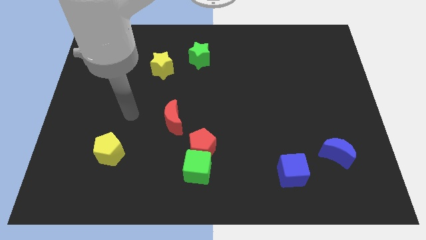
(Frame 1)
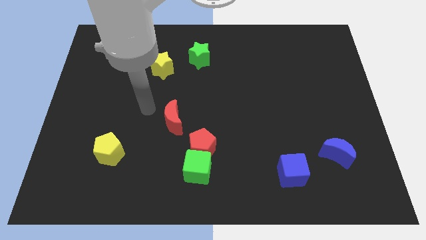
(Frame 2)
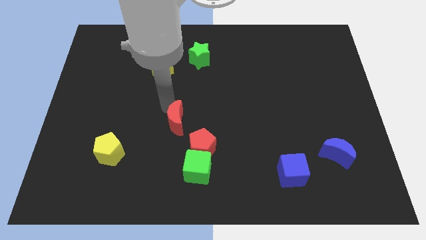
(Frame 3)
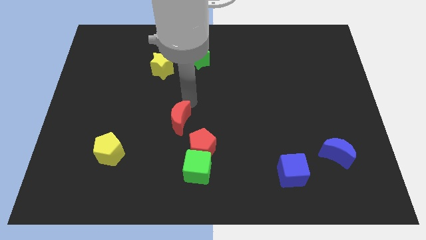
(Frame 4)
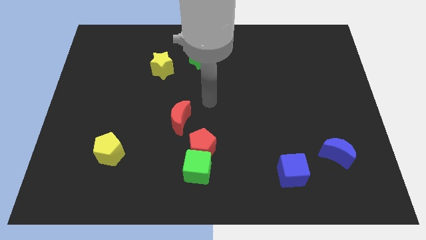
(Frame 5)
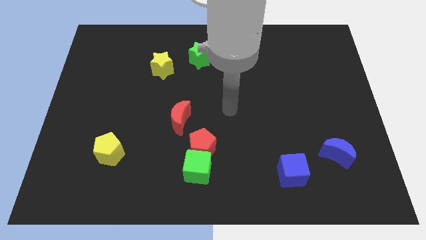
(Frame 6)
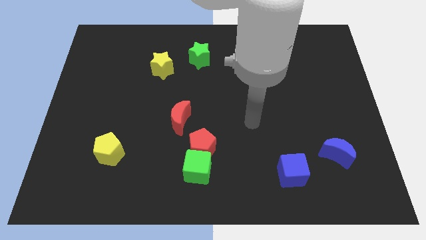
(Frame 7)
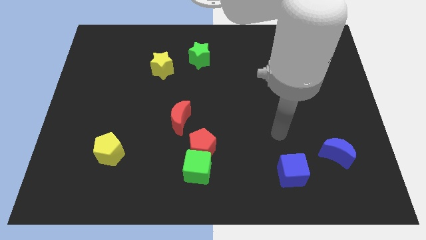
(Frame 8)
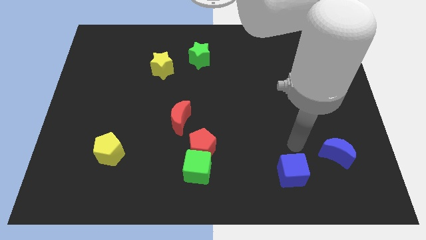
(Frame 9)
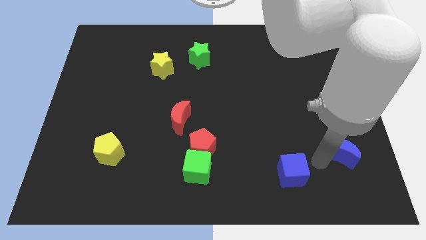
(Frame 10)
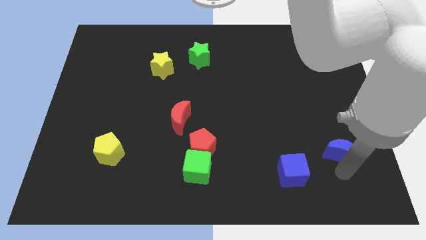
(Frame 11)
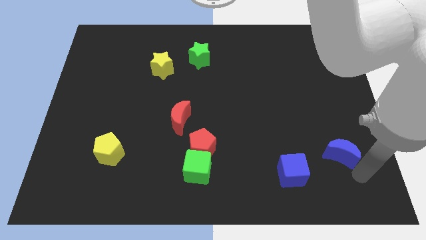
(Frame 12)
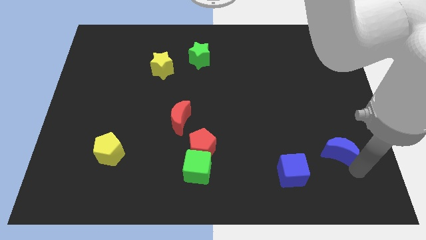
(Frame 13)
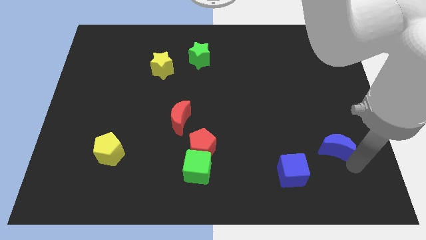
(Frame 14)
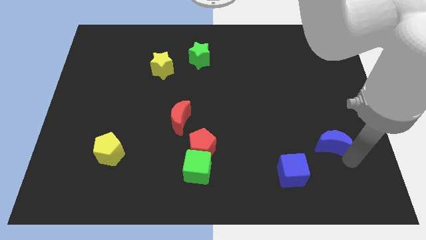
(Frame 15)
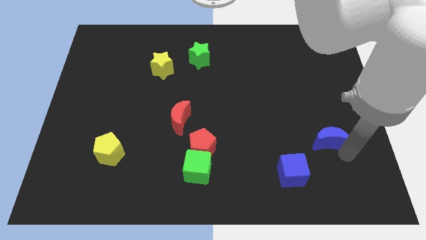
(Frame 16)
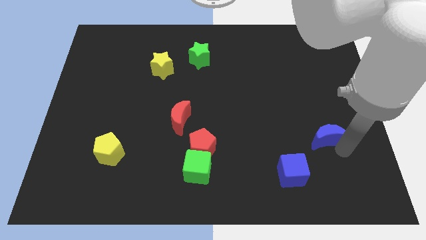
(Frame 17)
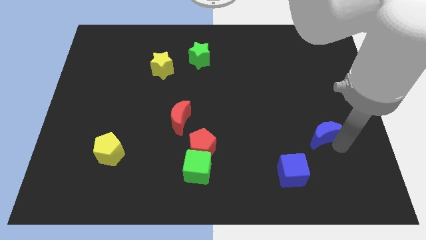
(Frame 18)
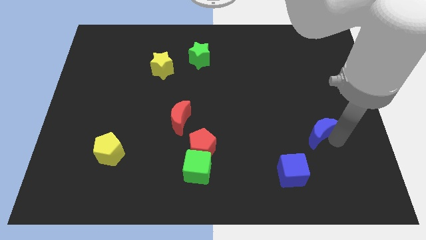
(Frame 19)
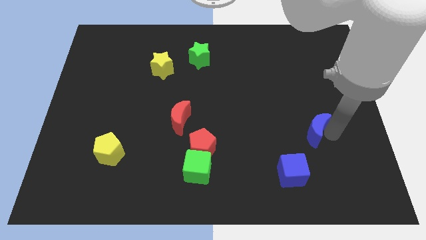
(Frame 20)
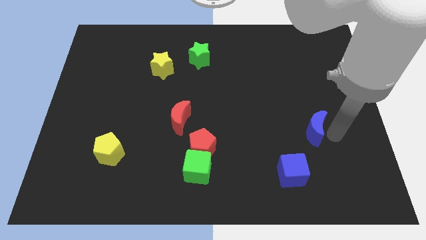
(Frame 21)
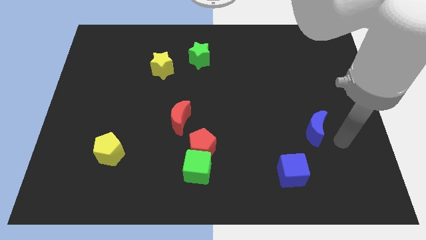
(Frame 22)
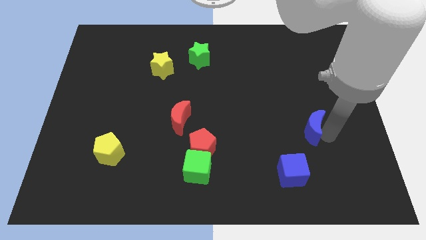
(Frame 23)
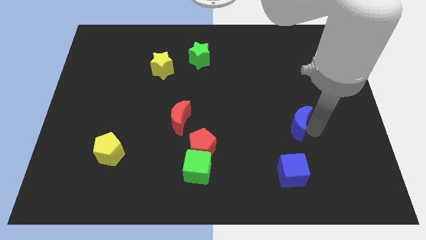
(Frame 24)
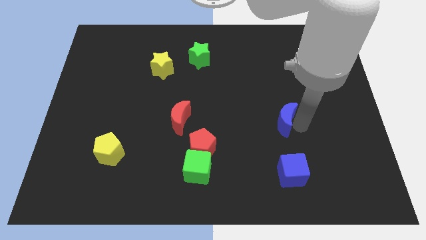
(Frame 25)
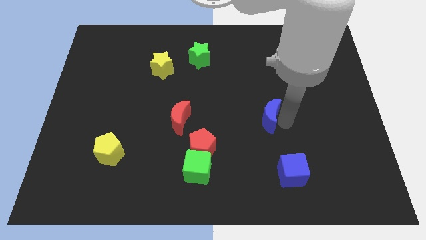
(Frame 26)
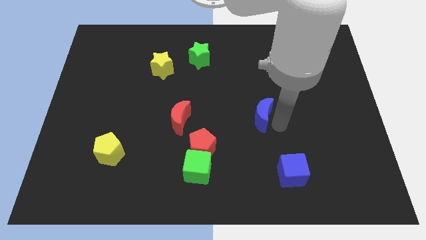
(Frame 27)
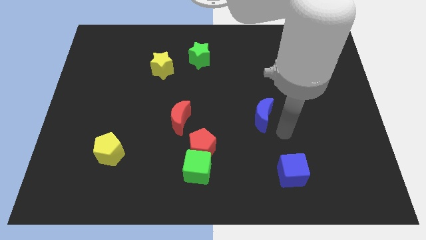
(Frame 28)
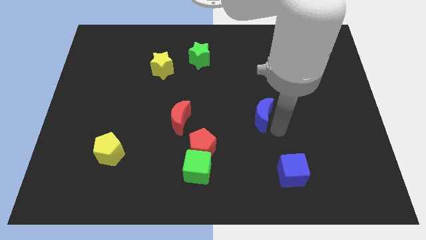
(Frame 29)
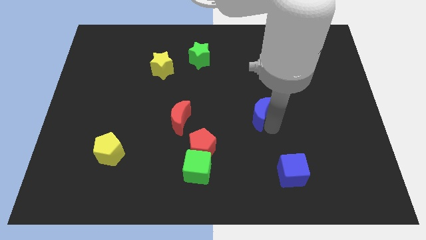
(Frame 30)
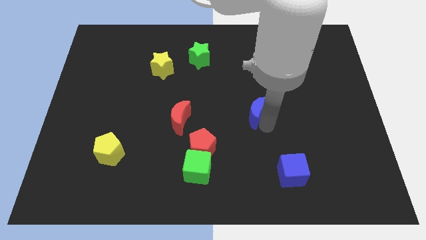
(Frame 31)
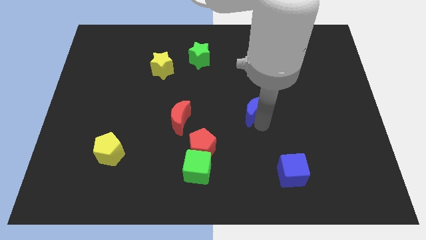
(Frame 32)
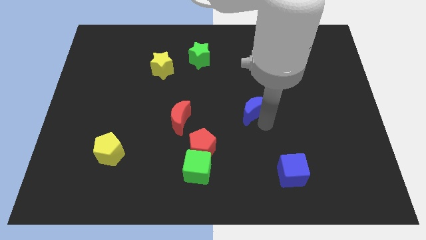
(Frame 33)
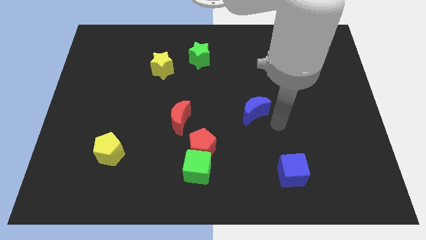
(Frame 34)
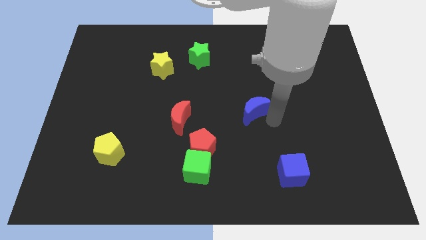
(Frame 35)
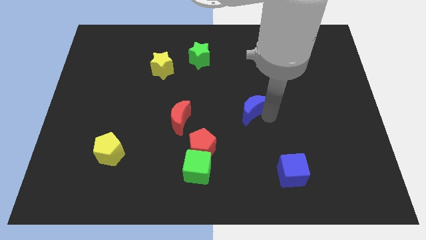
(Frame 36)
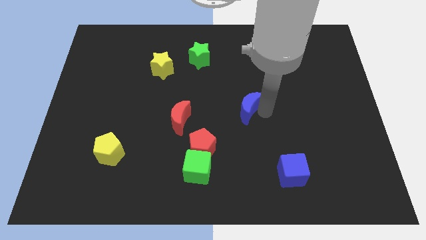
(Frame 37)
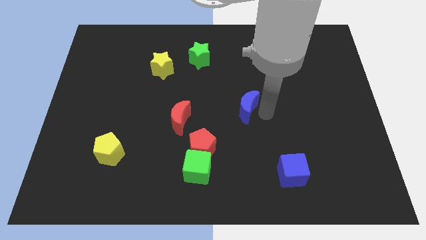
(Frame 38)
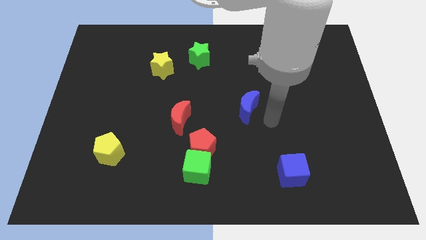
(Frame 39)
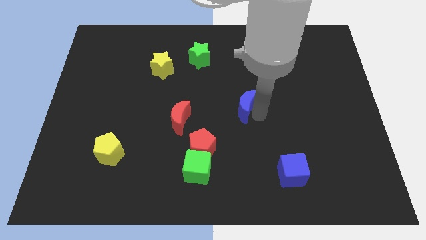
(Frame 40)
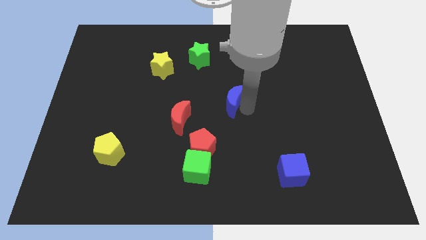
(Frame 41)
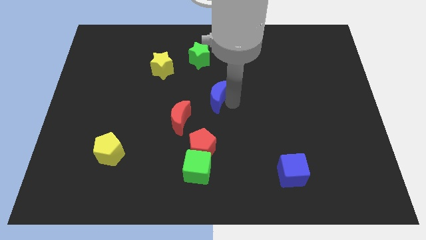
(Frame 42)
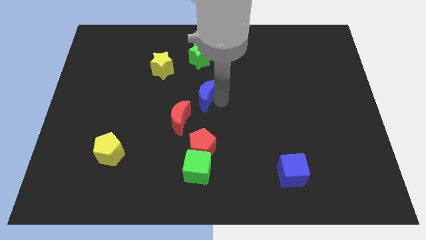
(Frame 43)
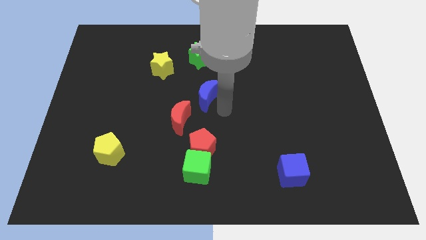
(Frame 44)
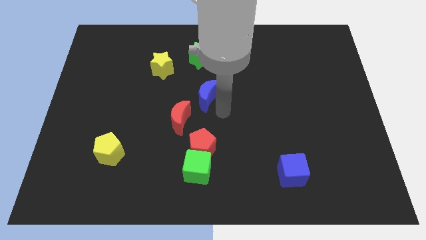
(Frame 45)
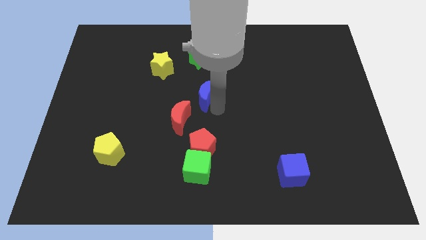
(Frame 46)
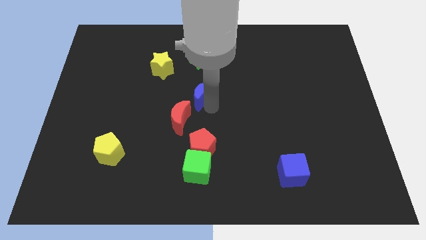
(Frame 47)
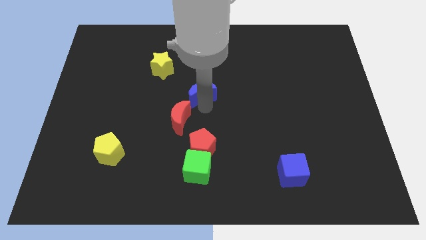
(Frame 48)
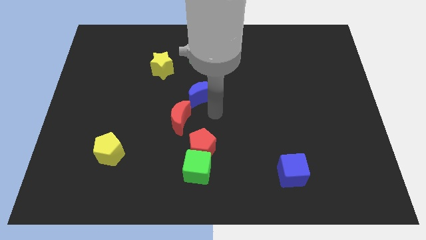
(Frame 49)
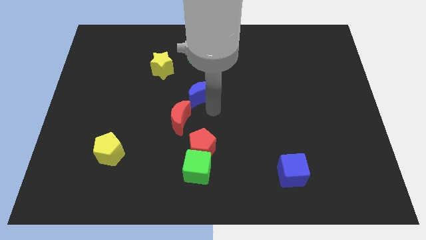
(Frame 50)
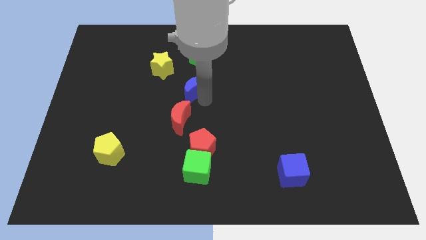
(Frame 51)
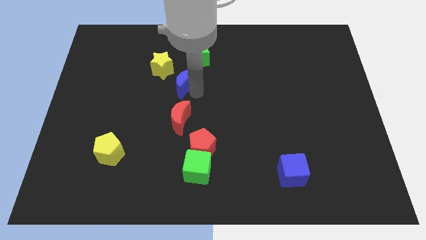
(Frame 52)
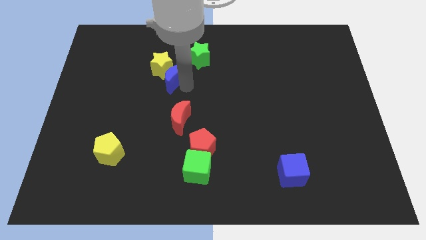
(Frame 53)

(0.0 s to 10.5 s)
push the blue moon towards the yellow star

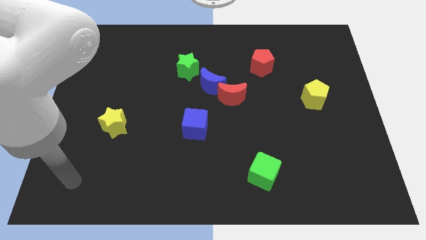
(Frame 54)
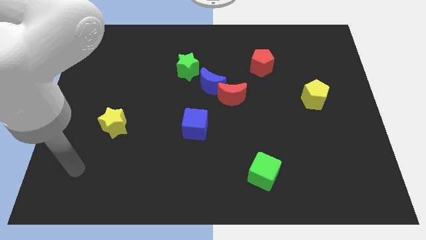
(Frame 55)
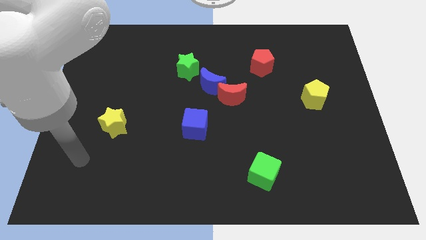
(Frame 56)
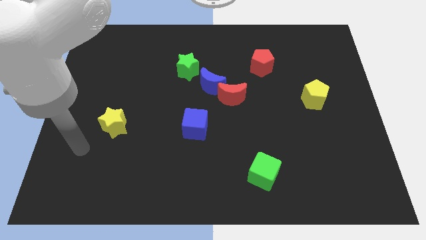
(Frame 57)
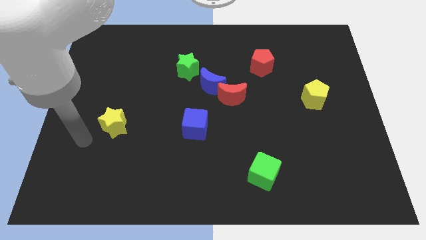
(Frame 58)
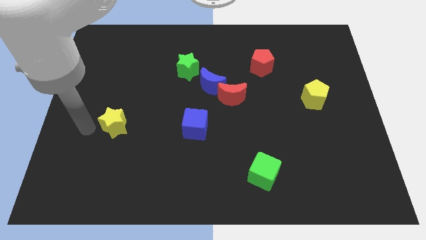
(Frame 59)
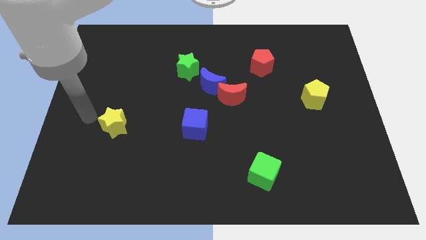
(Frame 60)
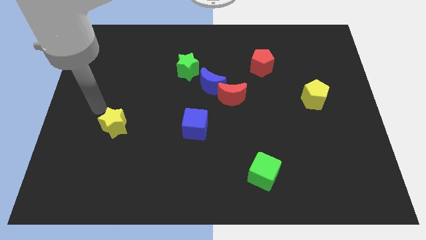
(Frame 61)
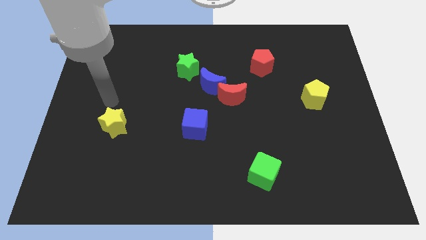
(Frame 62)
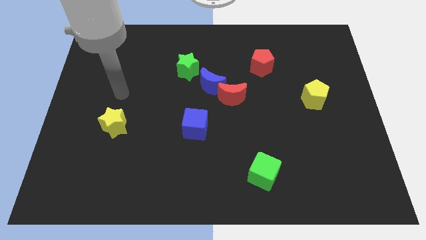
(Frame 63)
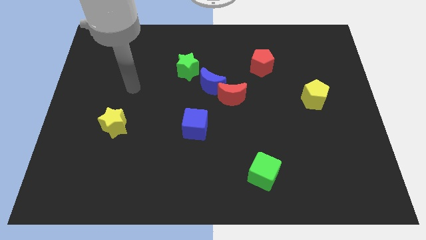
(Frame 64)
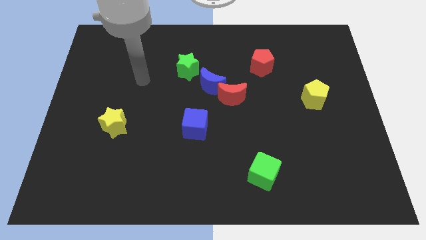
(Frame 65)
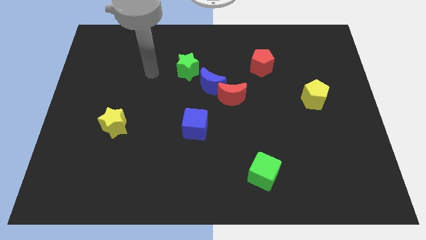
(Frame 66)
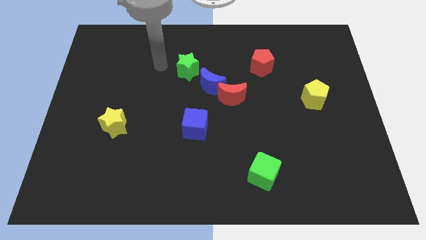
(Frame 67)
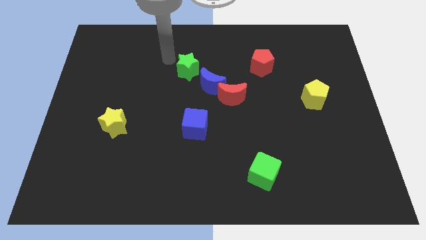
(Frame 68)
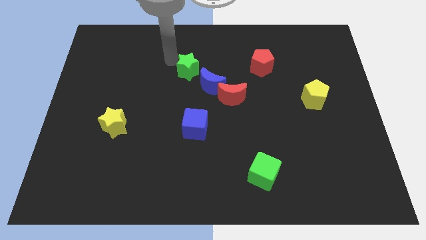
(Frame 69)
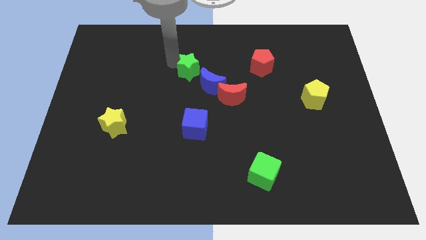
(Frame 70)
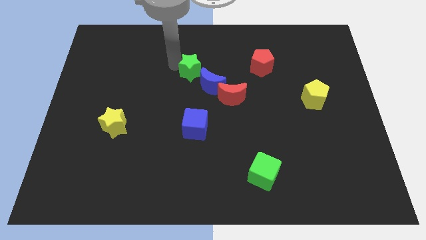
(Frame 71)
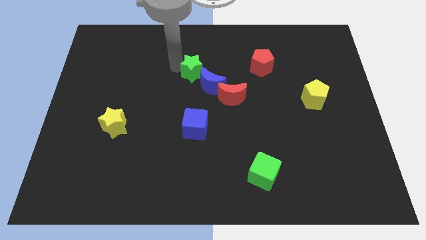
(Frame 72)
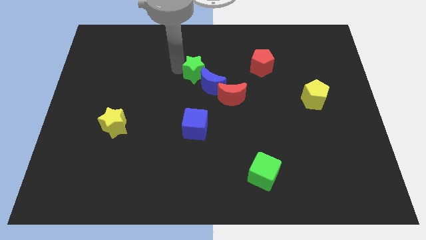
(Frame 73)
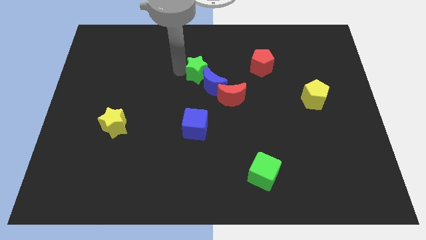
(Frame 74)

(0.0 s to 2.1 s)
push the green star towards the blue moon

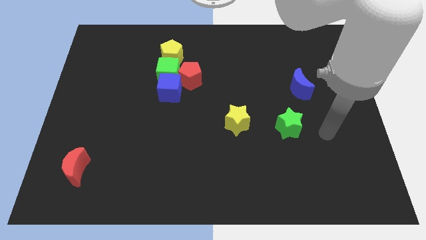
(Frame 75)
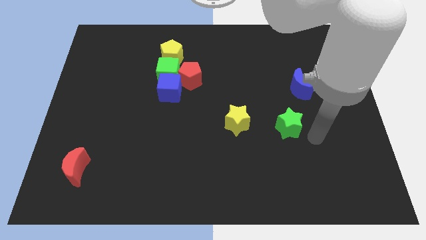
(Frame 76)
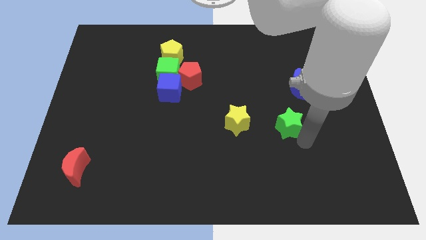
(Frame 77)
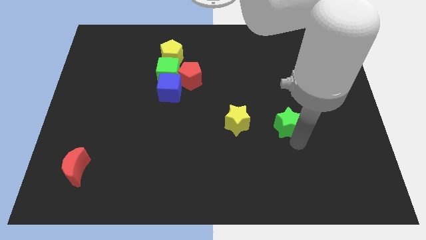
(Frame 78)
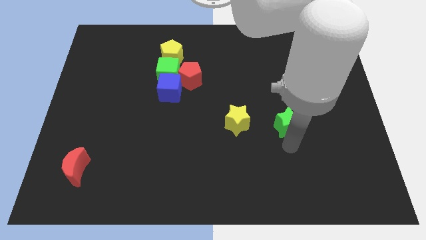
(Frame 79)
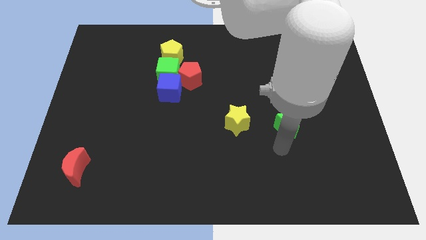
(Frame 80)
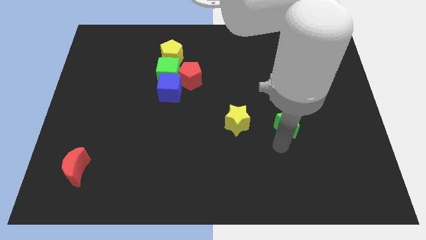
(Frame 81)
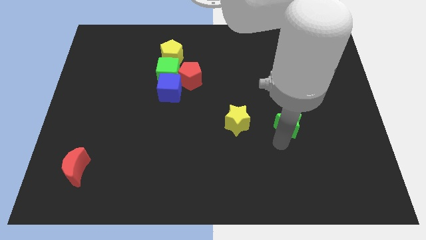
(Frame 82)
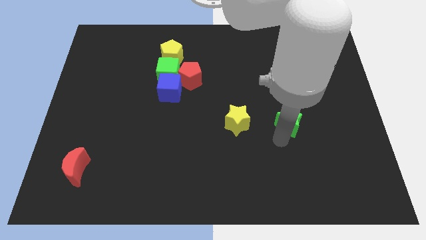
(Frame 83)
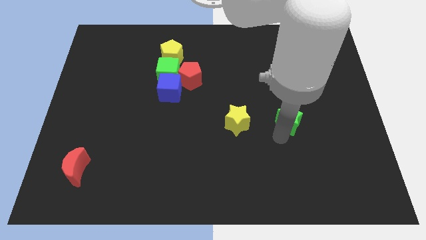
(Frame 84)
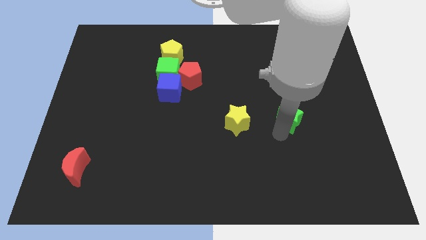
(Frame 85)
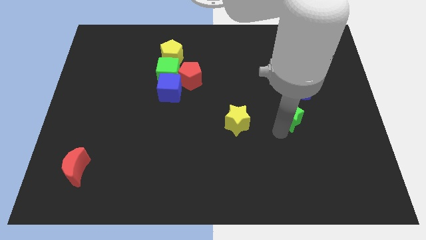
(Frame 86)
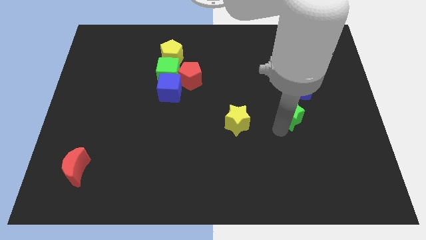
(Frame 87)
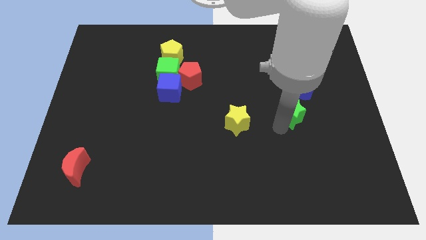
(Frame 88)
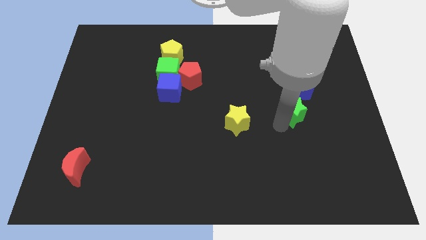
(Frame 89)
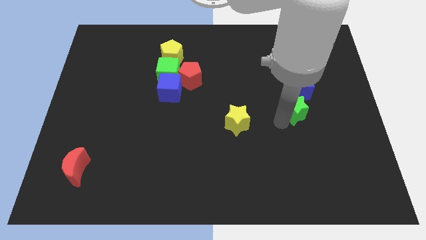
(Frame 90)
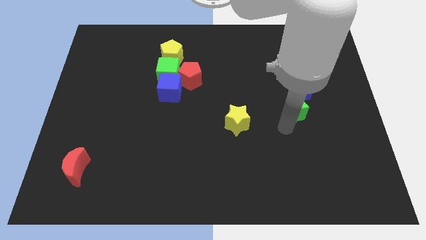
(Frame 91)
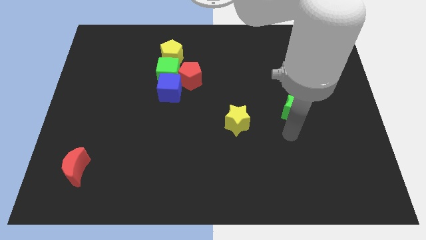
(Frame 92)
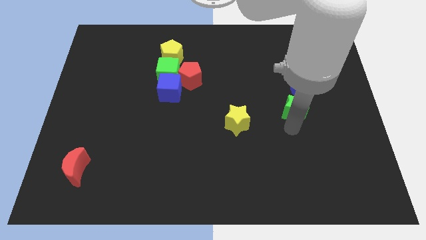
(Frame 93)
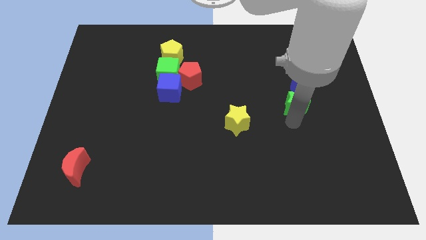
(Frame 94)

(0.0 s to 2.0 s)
slide the green star close to the blue moon
